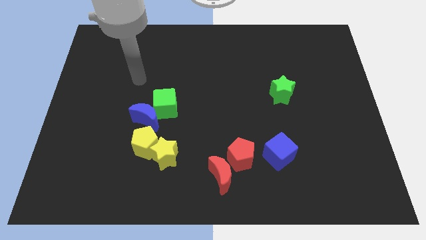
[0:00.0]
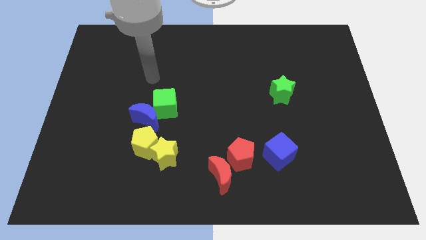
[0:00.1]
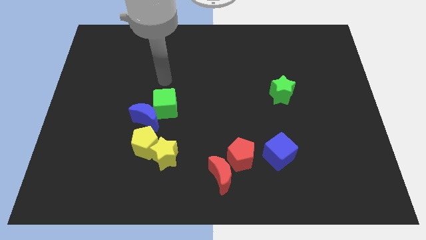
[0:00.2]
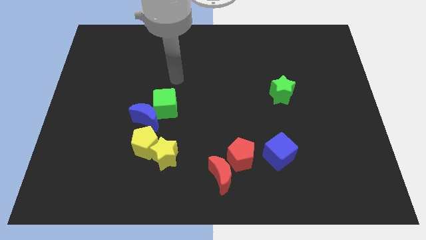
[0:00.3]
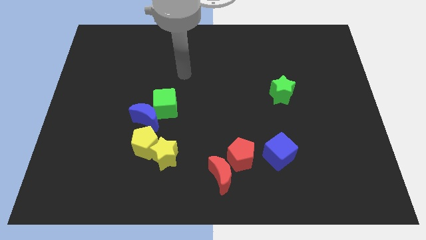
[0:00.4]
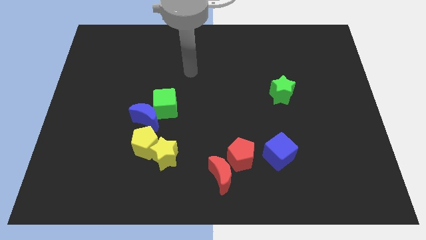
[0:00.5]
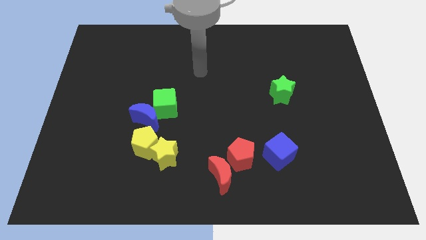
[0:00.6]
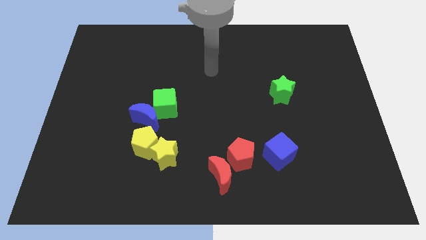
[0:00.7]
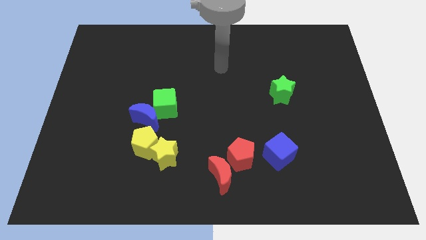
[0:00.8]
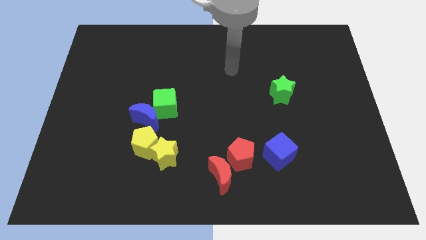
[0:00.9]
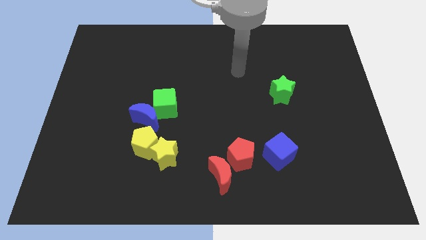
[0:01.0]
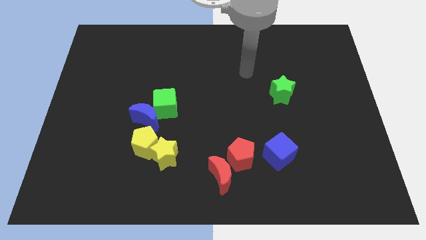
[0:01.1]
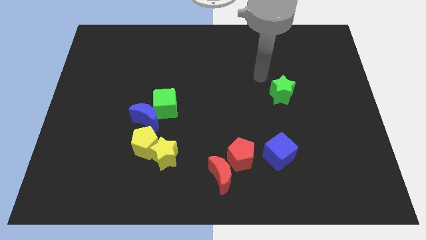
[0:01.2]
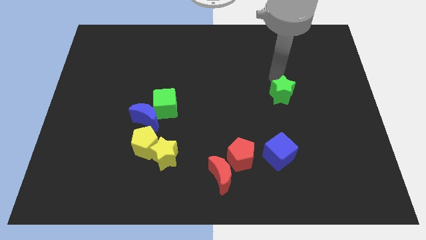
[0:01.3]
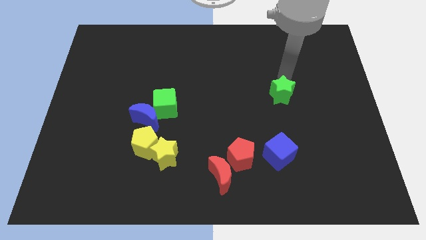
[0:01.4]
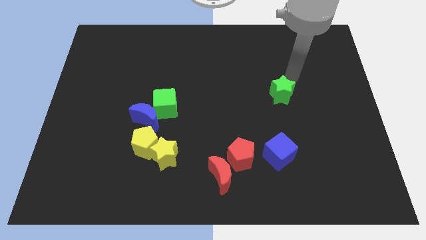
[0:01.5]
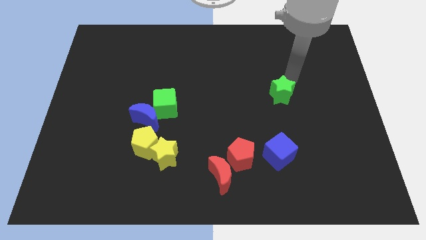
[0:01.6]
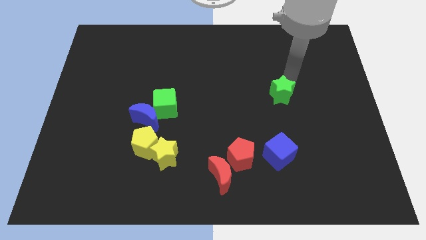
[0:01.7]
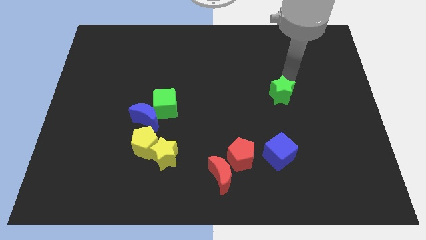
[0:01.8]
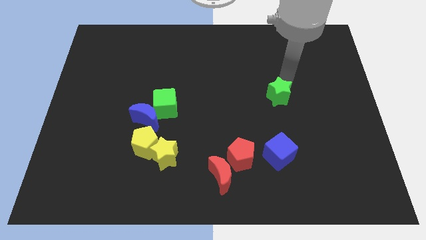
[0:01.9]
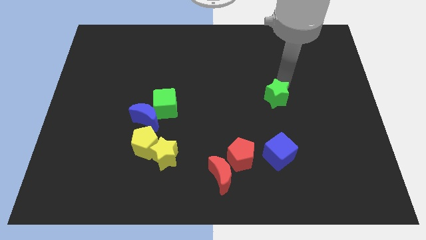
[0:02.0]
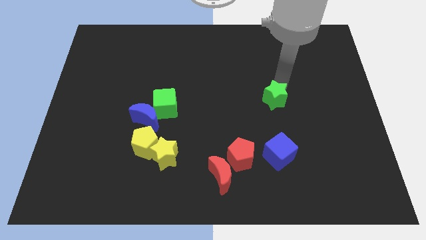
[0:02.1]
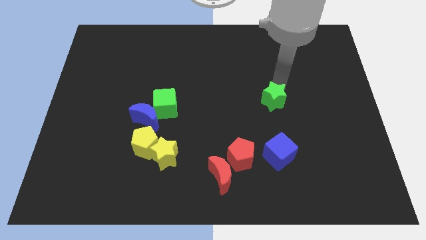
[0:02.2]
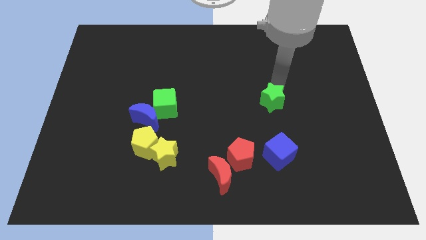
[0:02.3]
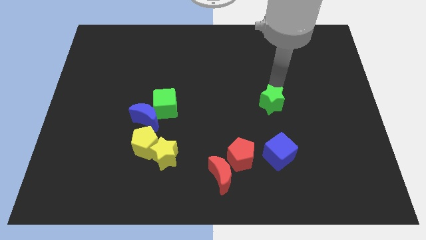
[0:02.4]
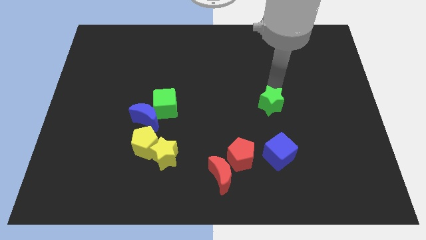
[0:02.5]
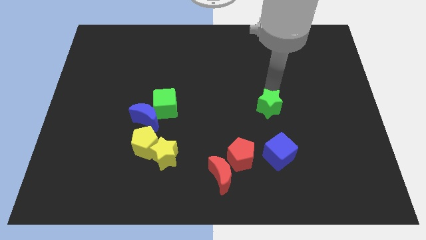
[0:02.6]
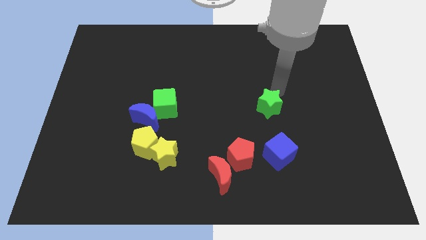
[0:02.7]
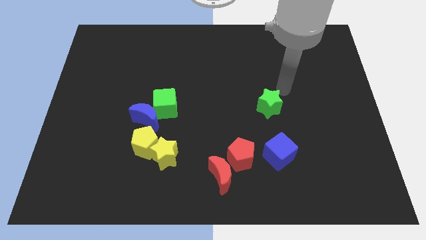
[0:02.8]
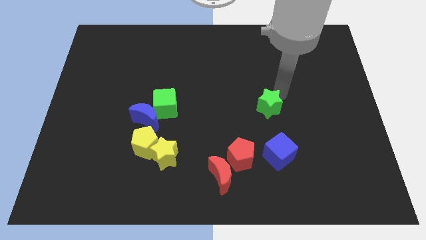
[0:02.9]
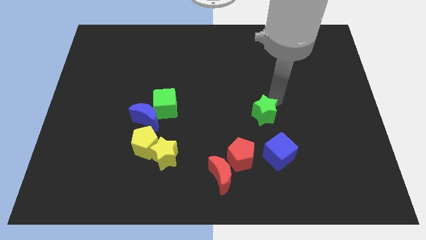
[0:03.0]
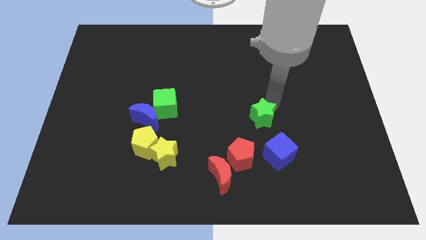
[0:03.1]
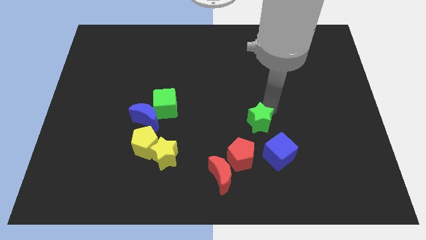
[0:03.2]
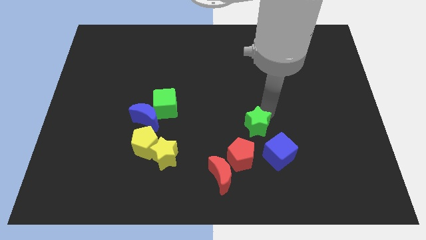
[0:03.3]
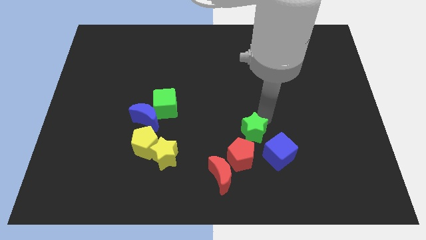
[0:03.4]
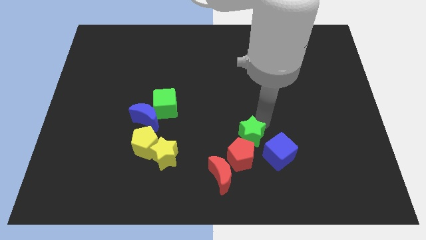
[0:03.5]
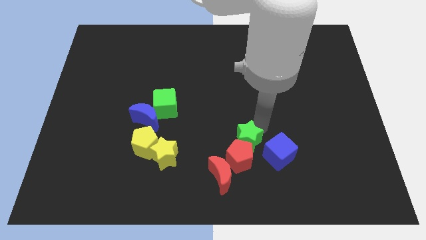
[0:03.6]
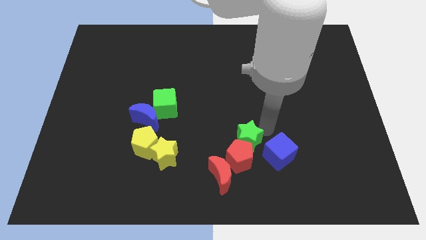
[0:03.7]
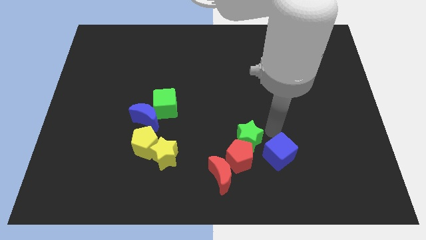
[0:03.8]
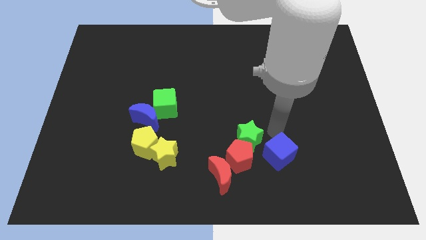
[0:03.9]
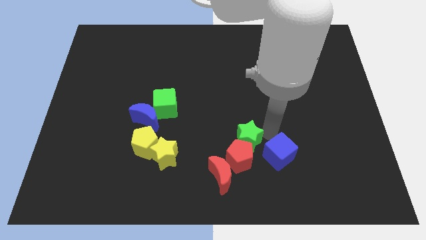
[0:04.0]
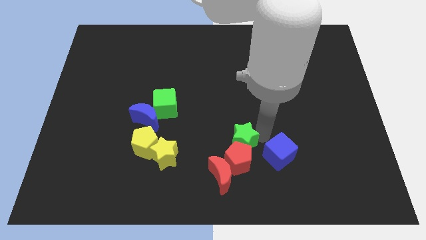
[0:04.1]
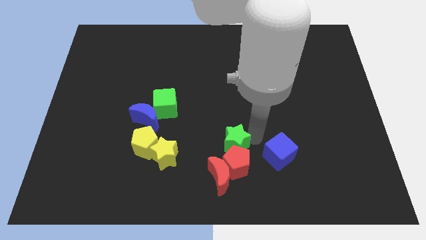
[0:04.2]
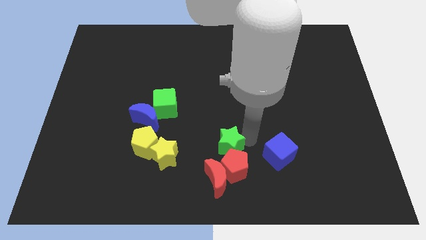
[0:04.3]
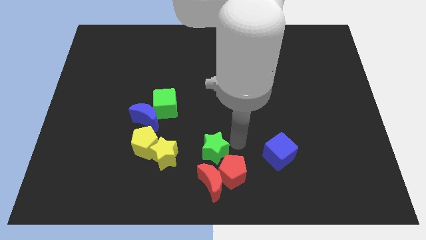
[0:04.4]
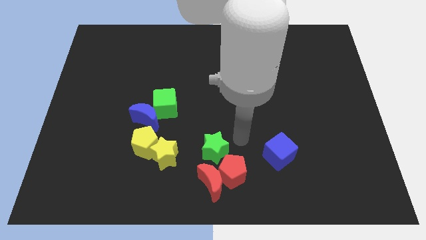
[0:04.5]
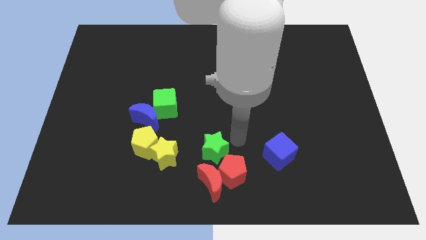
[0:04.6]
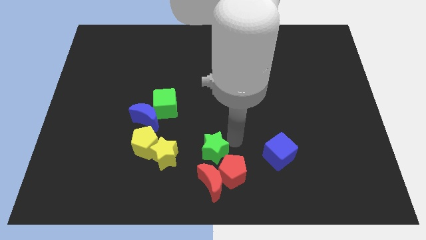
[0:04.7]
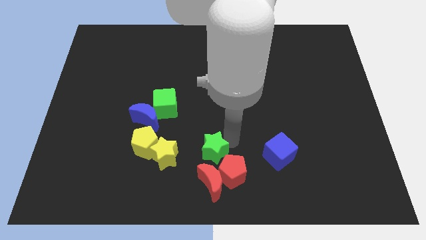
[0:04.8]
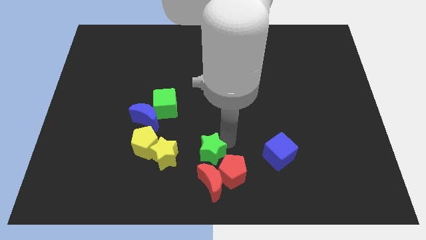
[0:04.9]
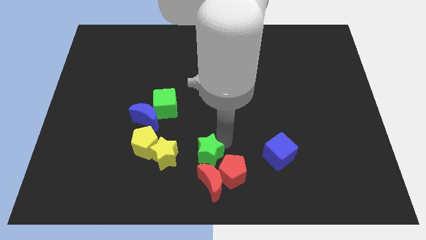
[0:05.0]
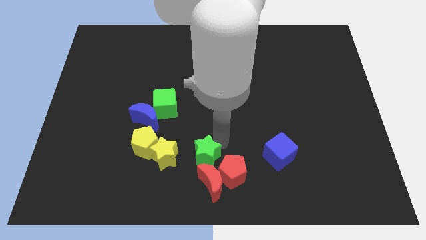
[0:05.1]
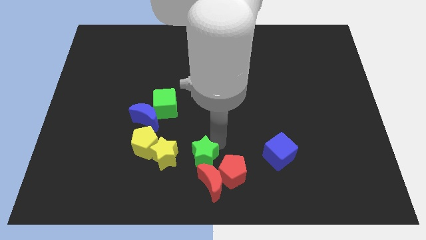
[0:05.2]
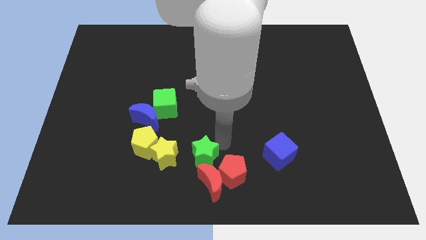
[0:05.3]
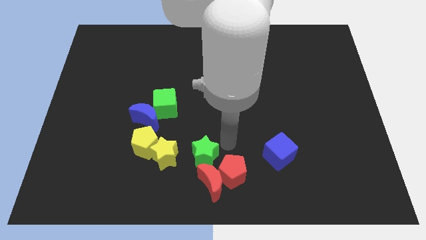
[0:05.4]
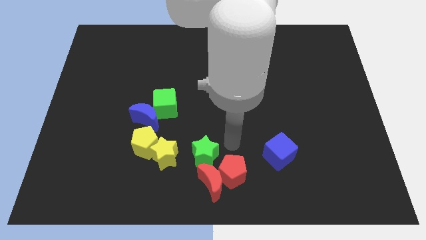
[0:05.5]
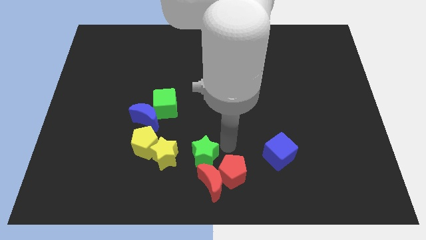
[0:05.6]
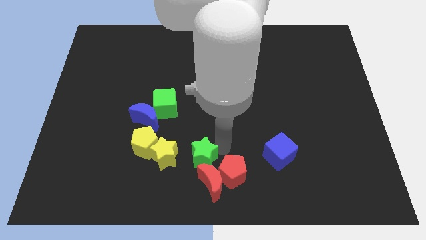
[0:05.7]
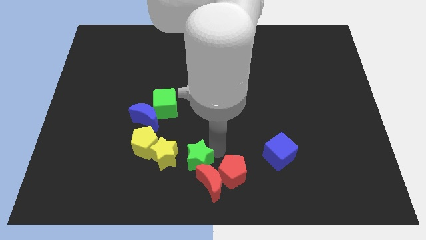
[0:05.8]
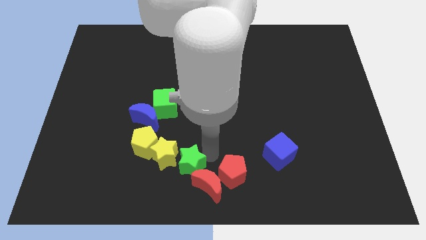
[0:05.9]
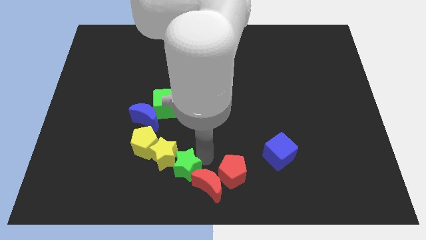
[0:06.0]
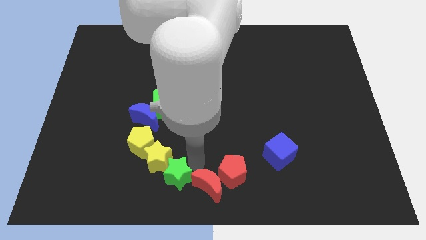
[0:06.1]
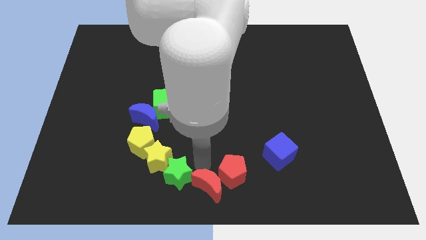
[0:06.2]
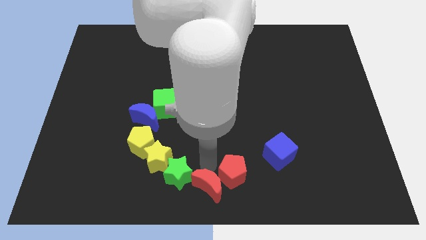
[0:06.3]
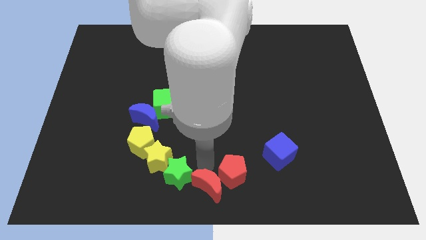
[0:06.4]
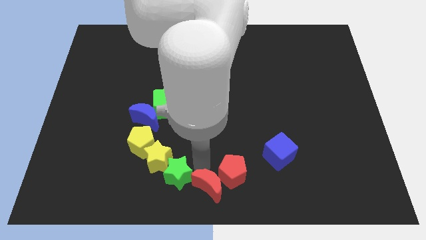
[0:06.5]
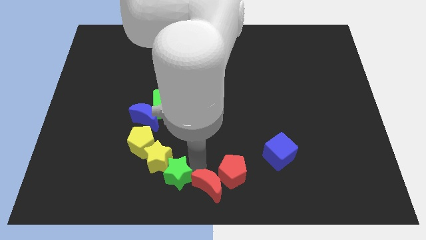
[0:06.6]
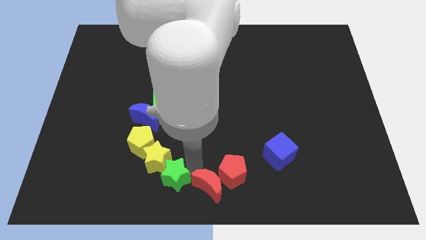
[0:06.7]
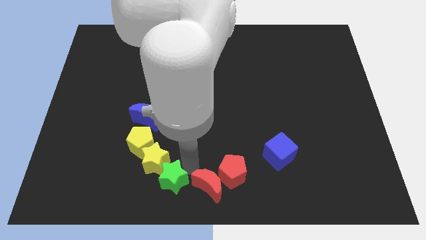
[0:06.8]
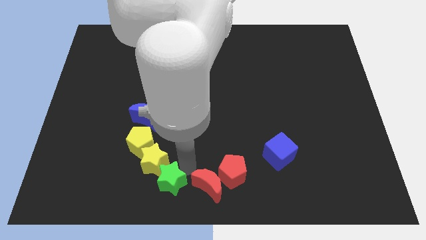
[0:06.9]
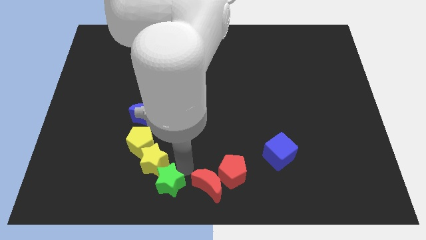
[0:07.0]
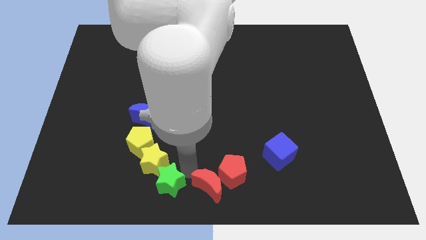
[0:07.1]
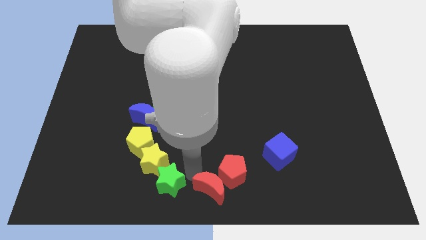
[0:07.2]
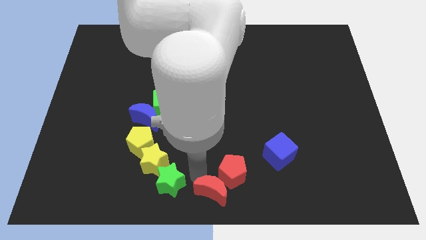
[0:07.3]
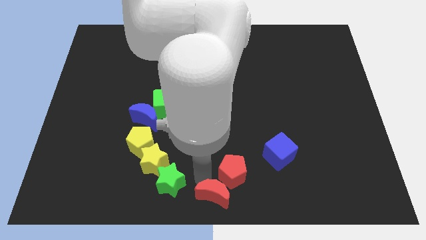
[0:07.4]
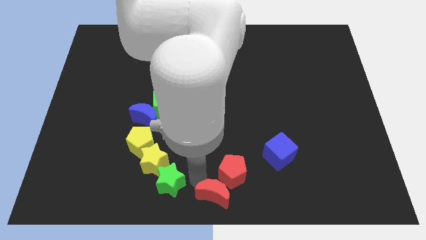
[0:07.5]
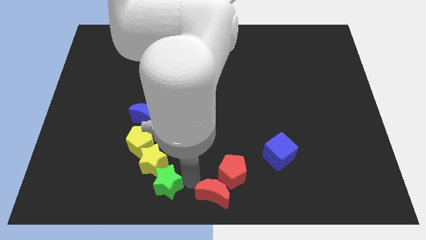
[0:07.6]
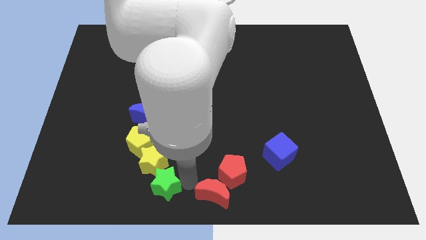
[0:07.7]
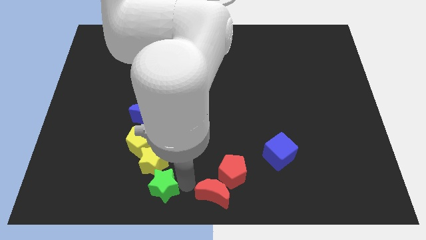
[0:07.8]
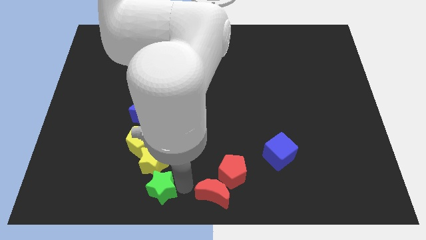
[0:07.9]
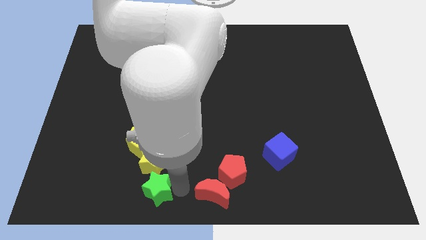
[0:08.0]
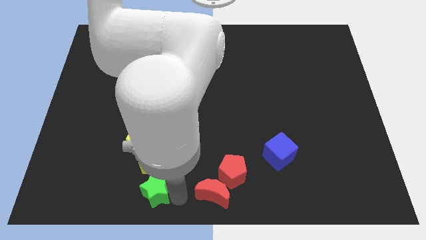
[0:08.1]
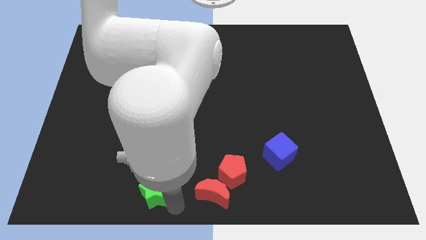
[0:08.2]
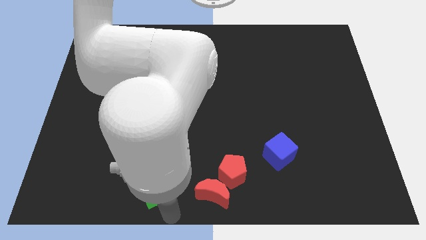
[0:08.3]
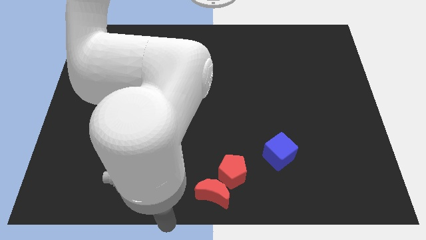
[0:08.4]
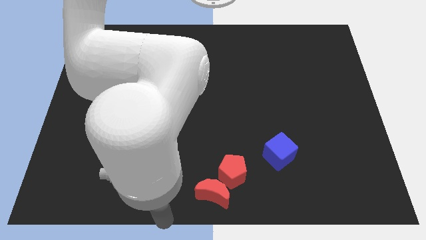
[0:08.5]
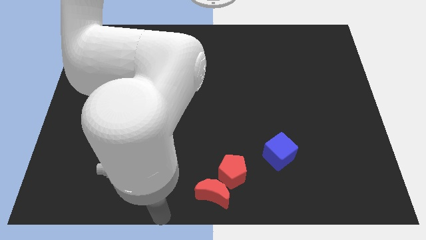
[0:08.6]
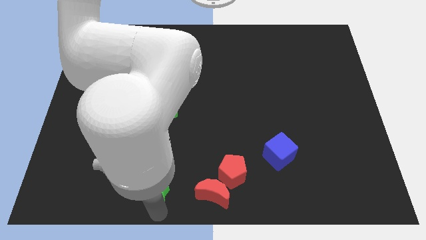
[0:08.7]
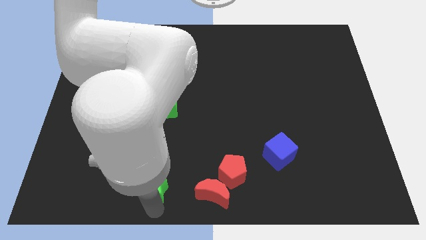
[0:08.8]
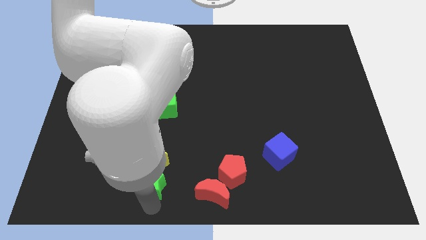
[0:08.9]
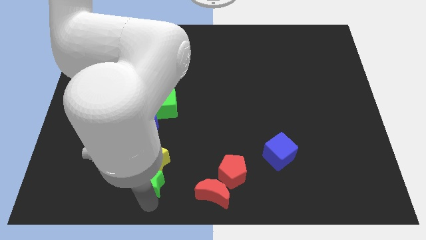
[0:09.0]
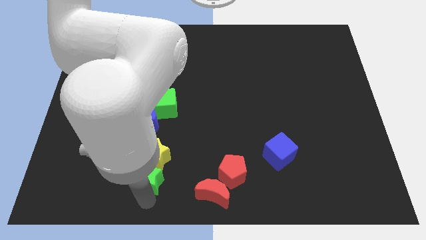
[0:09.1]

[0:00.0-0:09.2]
slide the green star to the bottom side of the blue moon
